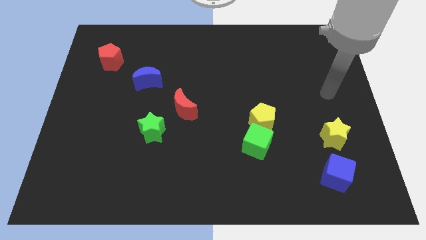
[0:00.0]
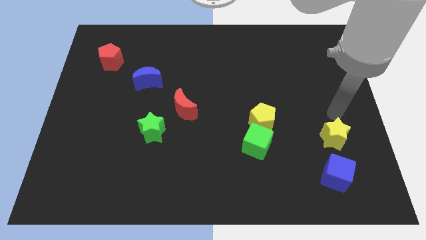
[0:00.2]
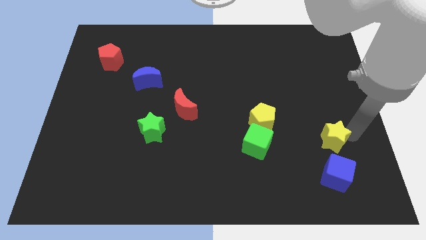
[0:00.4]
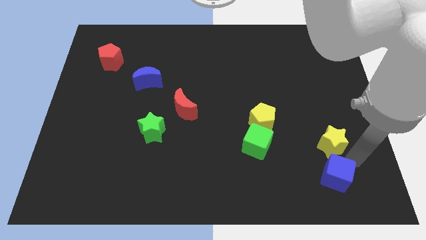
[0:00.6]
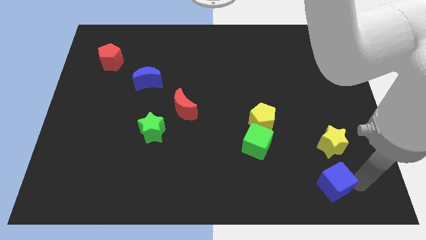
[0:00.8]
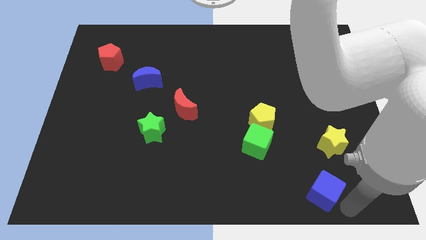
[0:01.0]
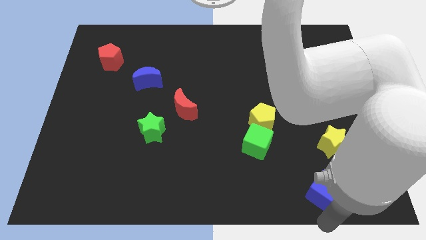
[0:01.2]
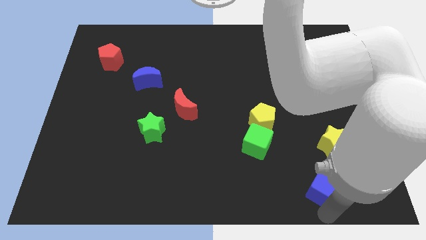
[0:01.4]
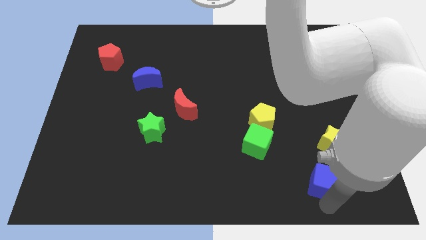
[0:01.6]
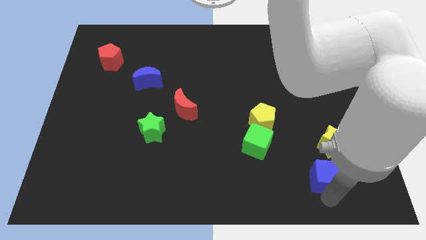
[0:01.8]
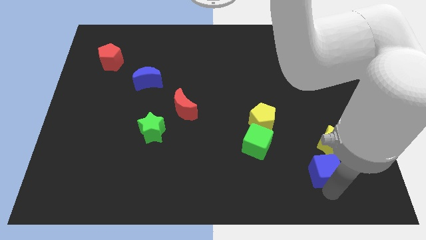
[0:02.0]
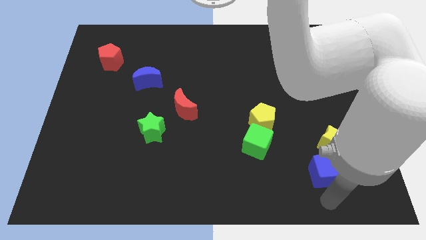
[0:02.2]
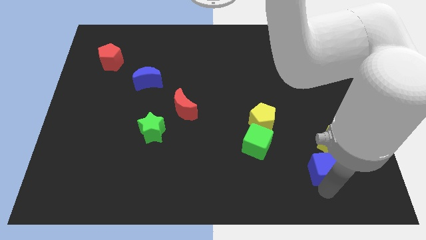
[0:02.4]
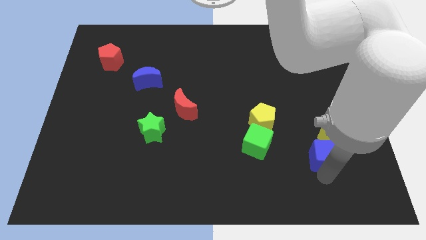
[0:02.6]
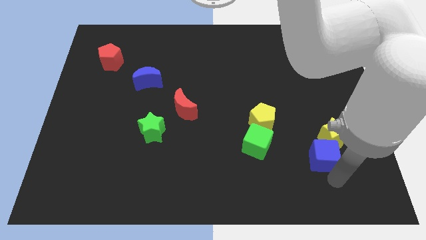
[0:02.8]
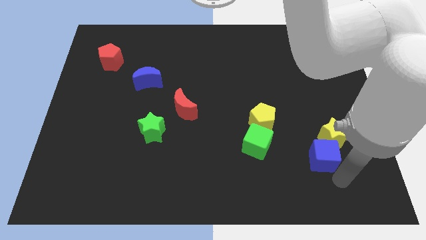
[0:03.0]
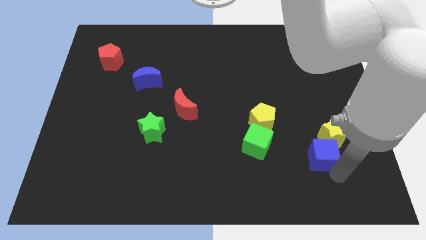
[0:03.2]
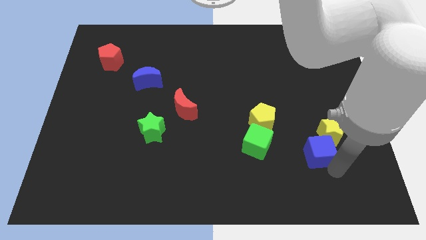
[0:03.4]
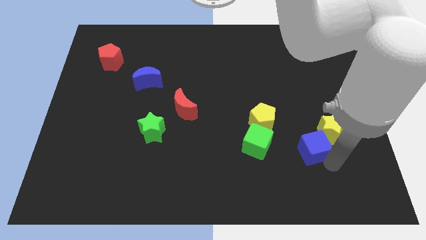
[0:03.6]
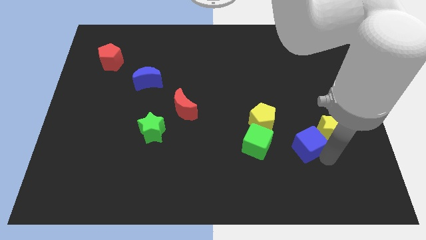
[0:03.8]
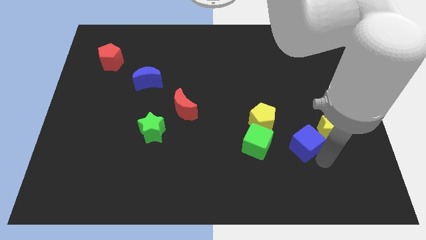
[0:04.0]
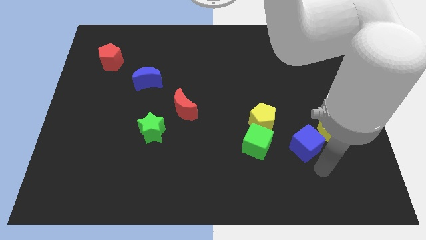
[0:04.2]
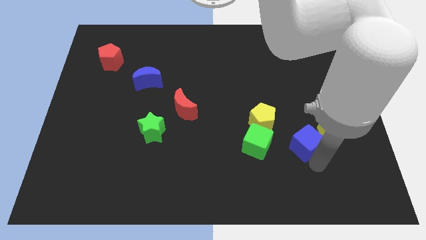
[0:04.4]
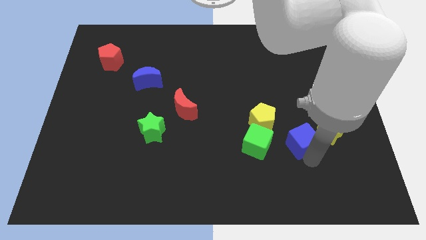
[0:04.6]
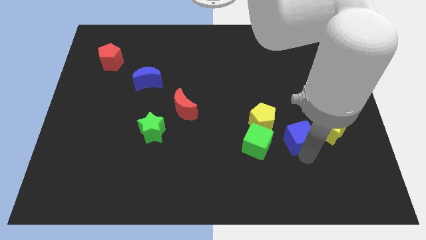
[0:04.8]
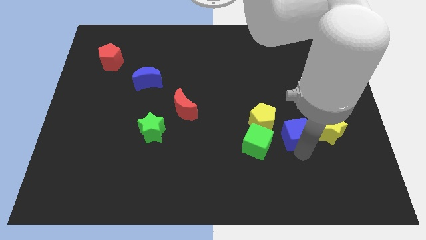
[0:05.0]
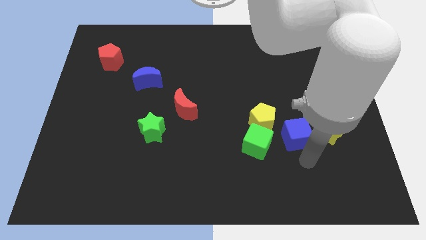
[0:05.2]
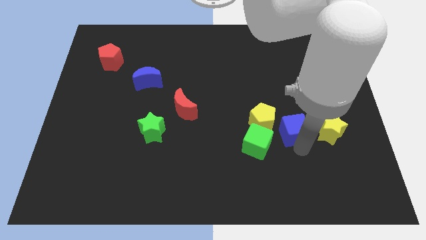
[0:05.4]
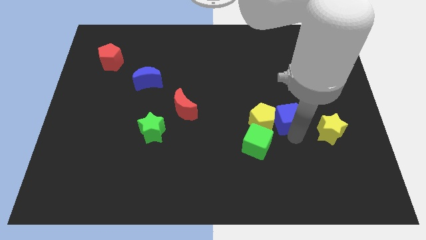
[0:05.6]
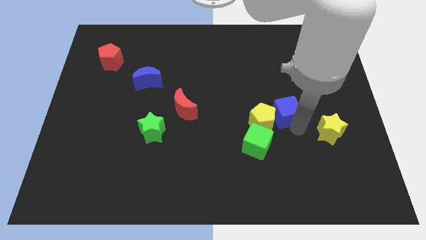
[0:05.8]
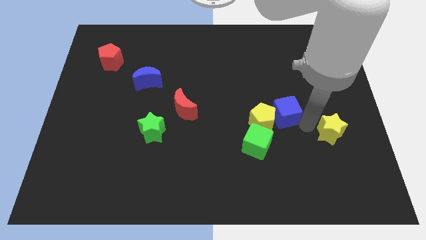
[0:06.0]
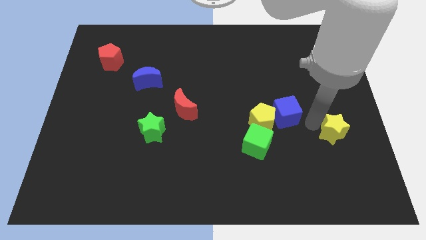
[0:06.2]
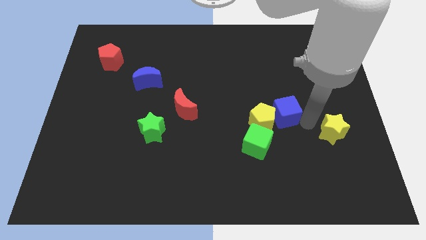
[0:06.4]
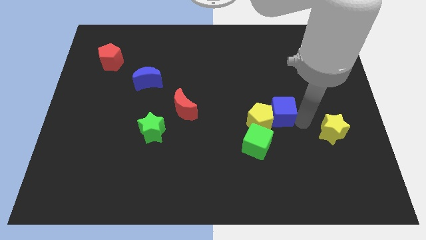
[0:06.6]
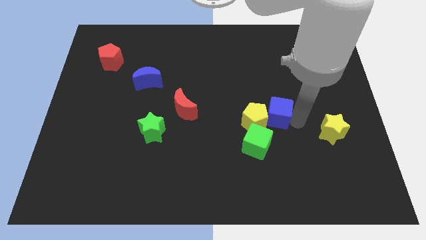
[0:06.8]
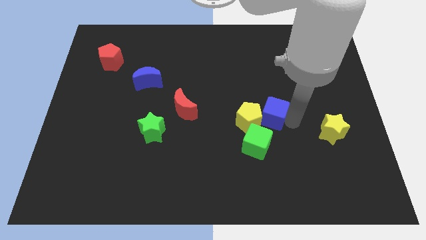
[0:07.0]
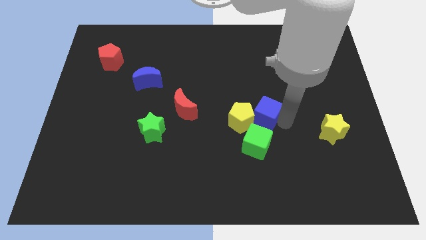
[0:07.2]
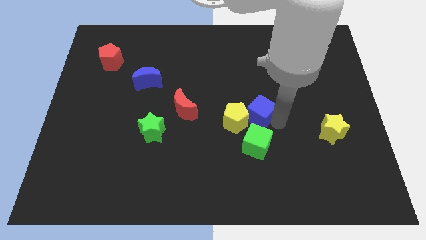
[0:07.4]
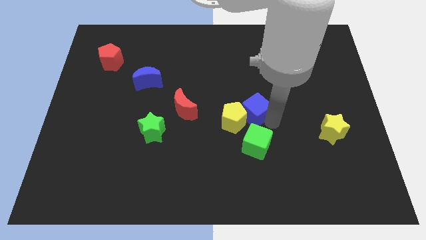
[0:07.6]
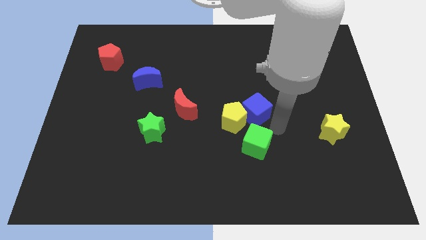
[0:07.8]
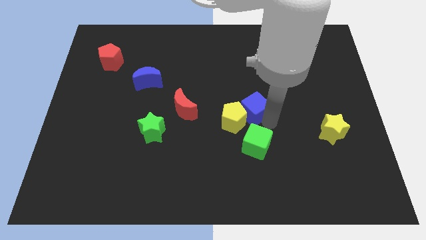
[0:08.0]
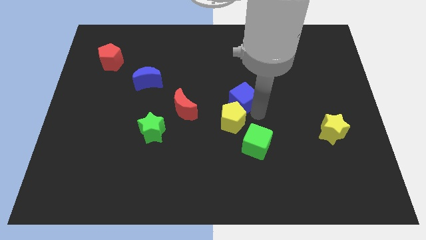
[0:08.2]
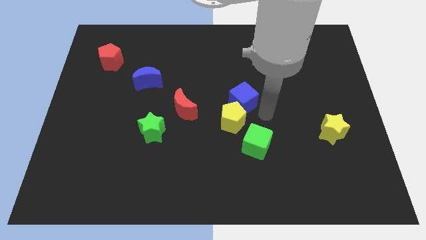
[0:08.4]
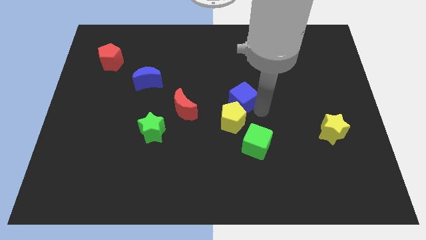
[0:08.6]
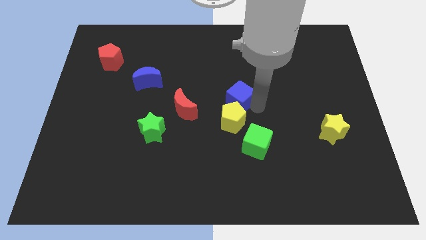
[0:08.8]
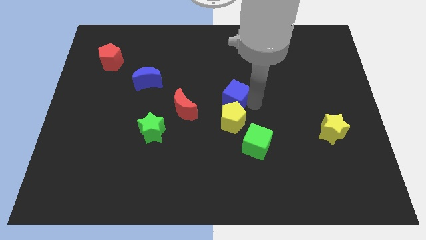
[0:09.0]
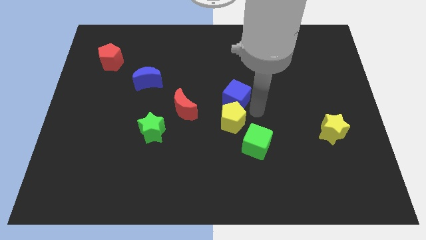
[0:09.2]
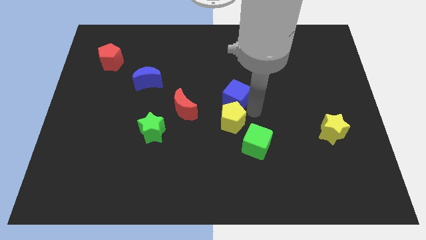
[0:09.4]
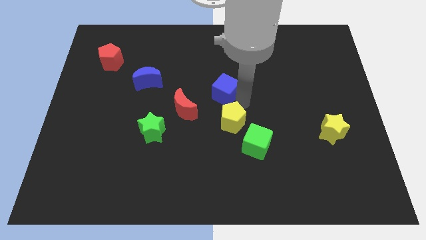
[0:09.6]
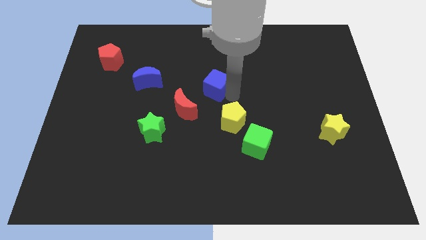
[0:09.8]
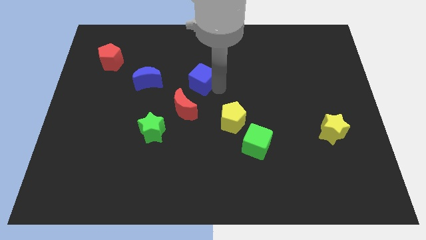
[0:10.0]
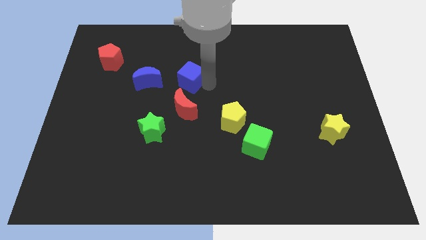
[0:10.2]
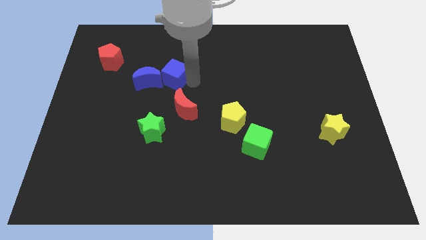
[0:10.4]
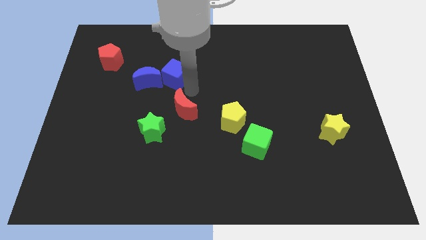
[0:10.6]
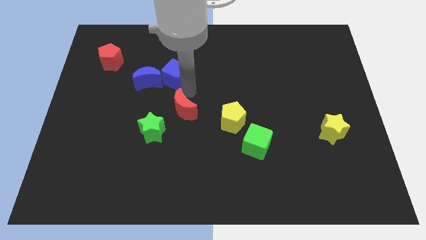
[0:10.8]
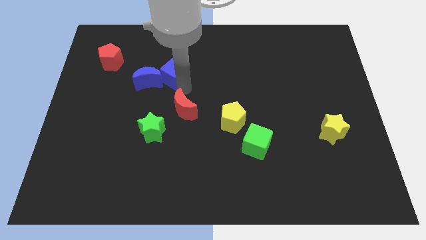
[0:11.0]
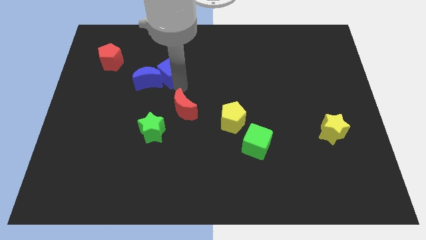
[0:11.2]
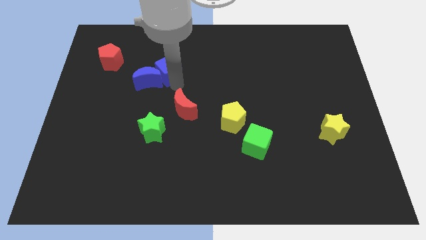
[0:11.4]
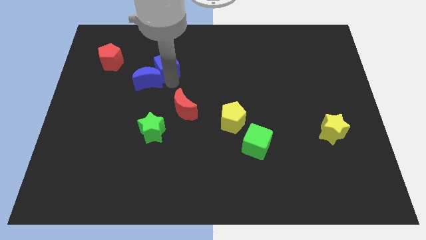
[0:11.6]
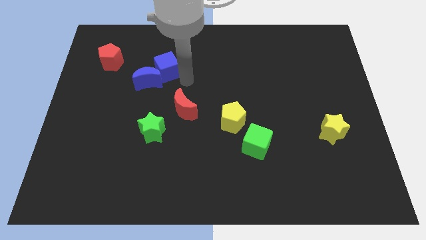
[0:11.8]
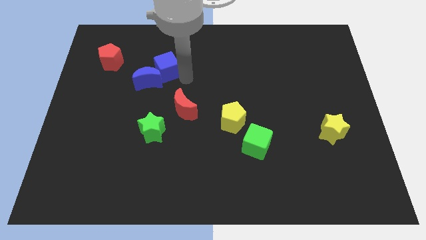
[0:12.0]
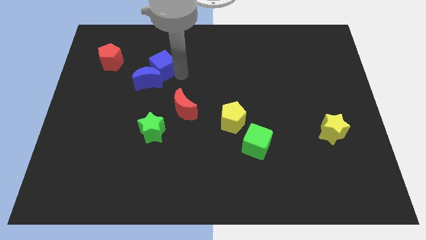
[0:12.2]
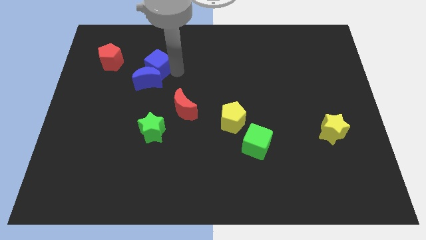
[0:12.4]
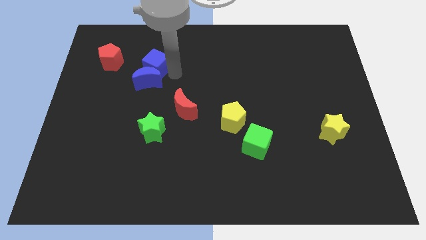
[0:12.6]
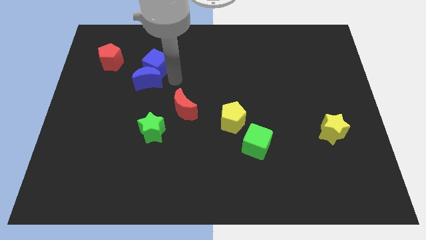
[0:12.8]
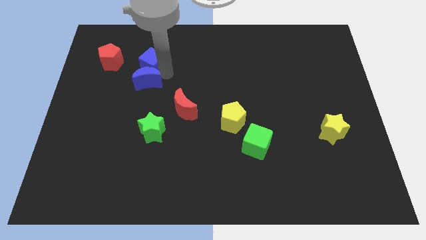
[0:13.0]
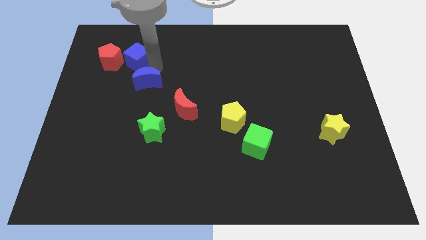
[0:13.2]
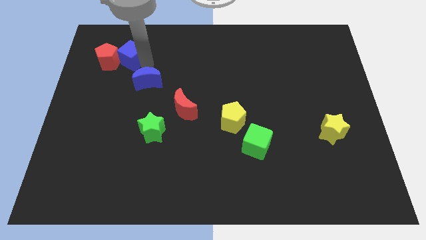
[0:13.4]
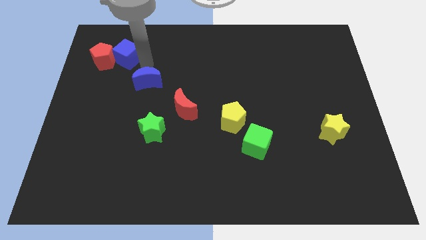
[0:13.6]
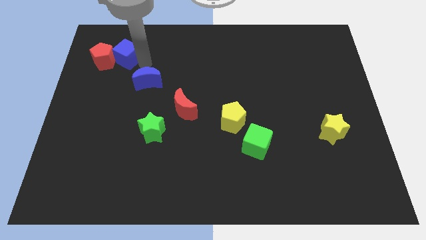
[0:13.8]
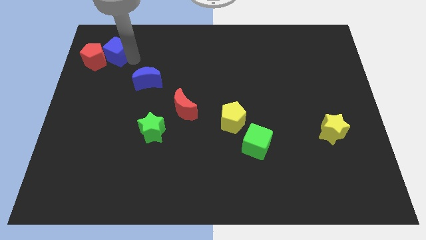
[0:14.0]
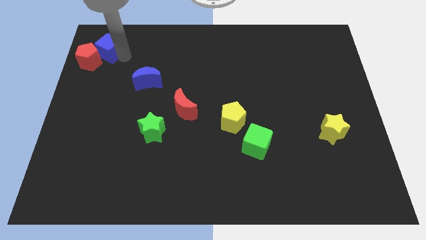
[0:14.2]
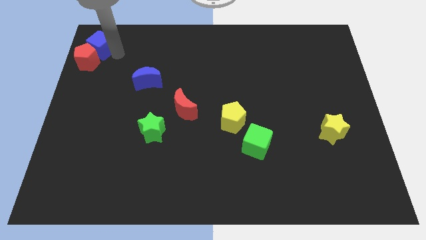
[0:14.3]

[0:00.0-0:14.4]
put the blue cube to the top left

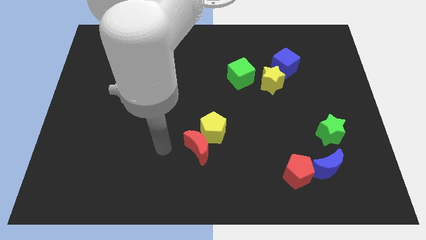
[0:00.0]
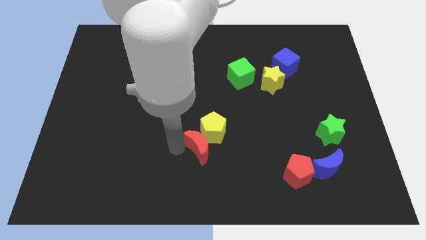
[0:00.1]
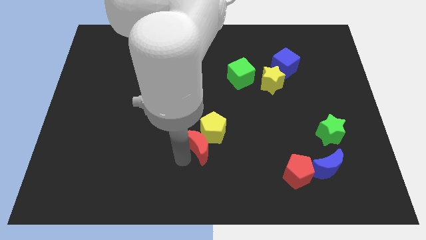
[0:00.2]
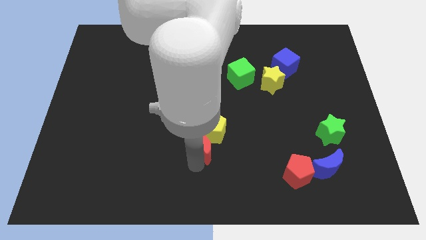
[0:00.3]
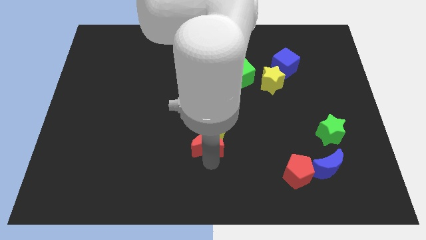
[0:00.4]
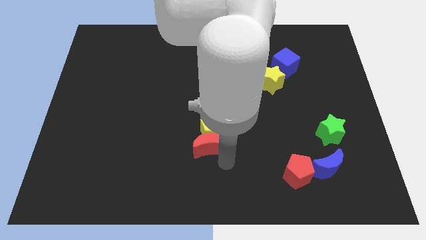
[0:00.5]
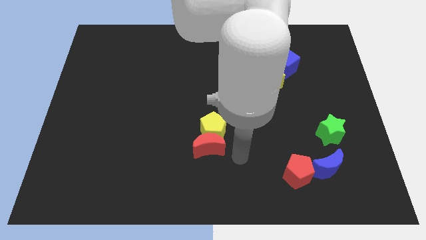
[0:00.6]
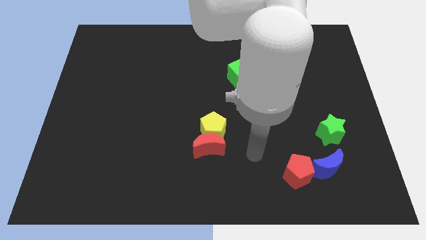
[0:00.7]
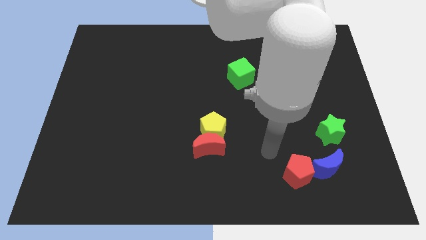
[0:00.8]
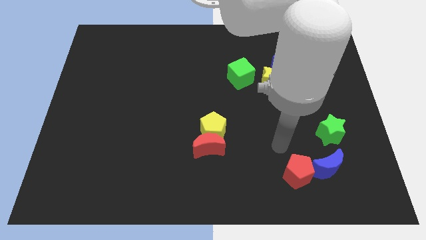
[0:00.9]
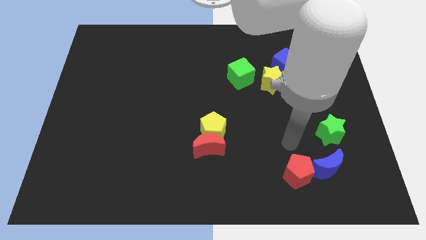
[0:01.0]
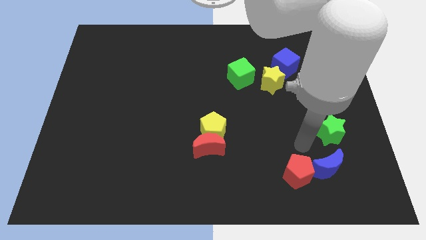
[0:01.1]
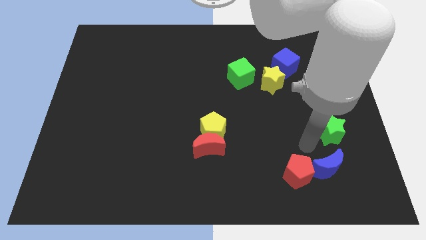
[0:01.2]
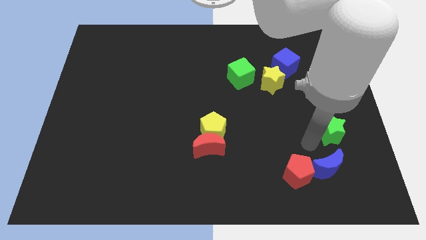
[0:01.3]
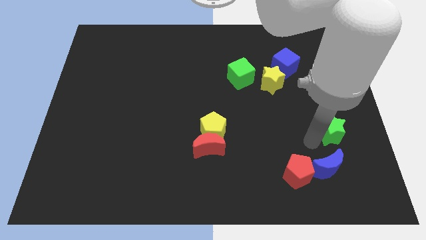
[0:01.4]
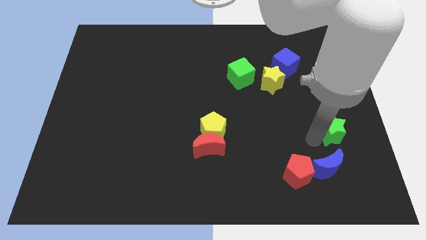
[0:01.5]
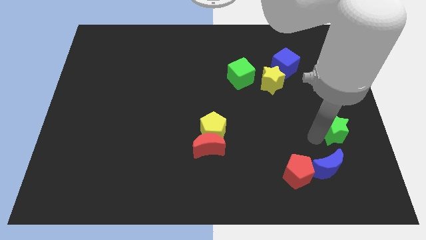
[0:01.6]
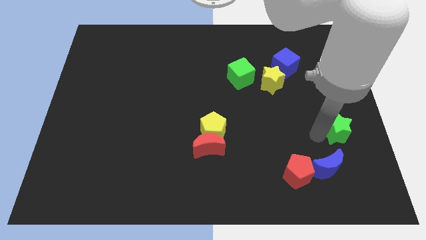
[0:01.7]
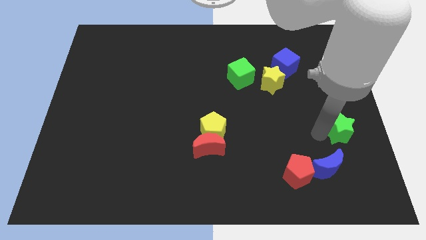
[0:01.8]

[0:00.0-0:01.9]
slide the green star to the right side
